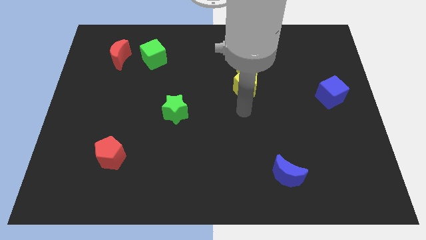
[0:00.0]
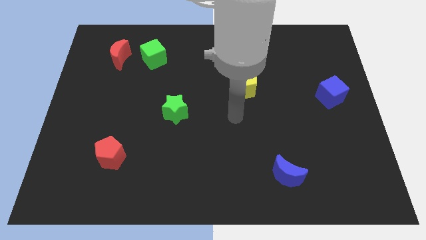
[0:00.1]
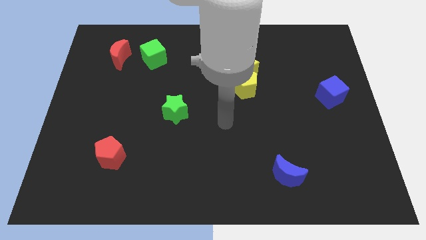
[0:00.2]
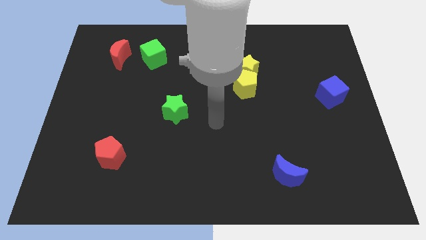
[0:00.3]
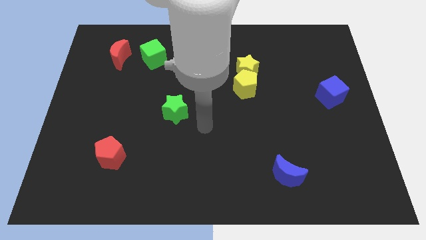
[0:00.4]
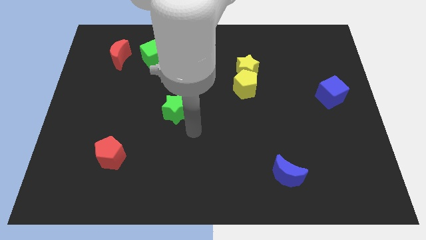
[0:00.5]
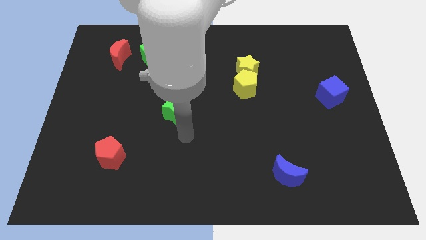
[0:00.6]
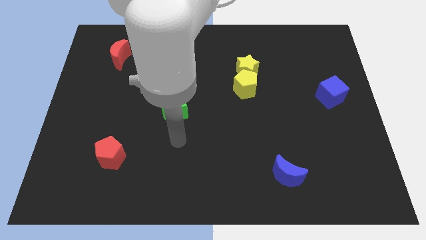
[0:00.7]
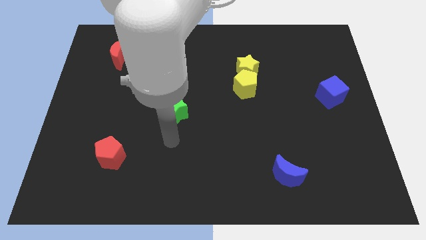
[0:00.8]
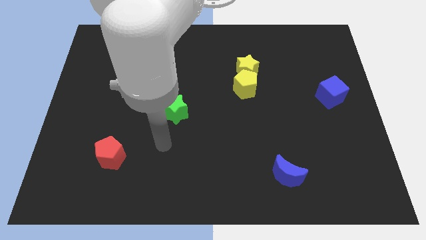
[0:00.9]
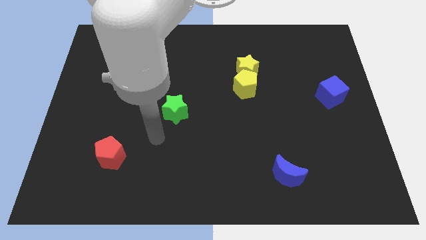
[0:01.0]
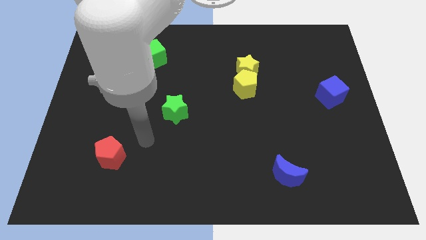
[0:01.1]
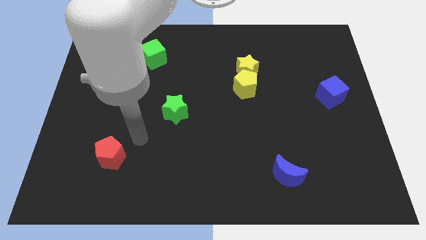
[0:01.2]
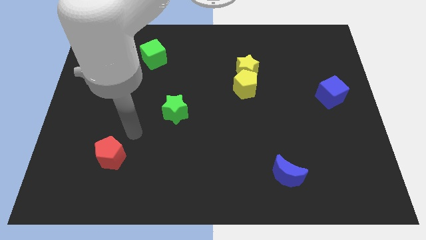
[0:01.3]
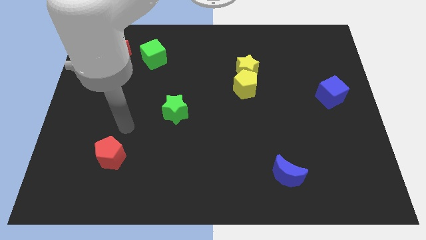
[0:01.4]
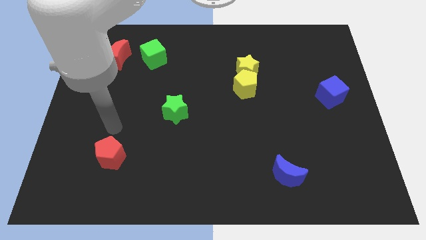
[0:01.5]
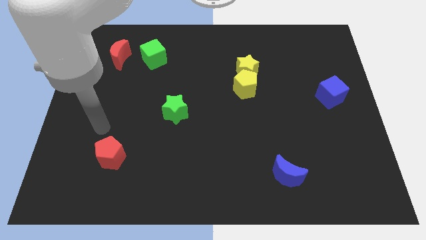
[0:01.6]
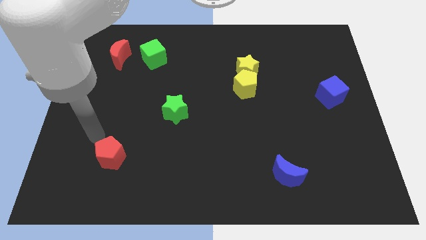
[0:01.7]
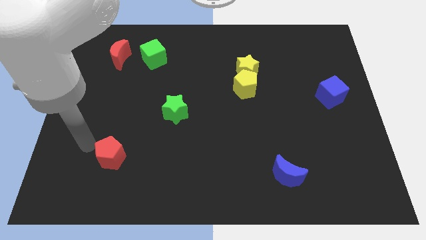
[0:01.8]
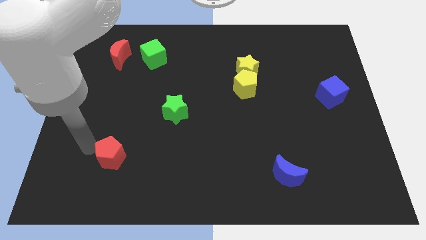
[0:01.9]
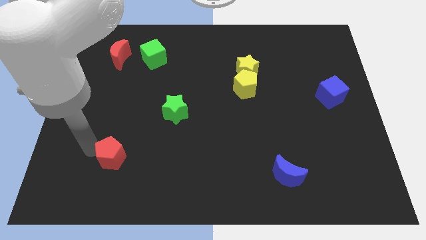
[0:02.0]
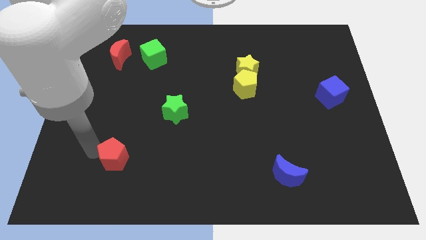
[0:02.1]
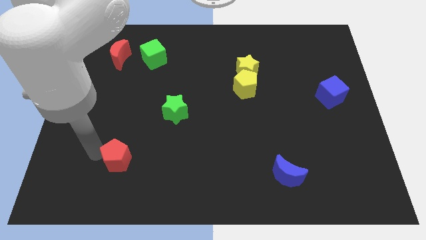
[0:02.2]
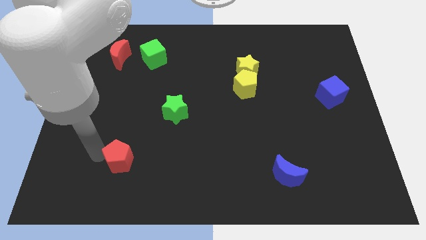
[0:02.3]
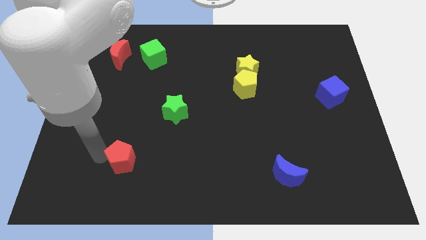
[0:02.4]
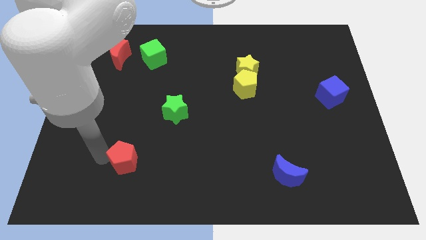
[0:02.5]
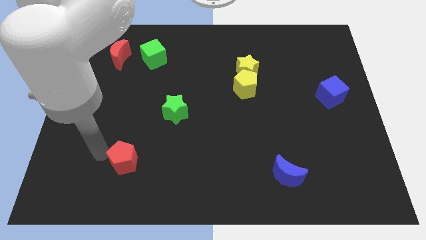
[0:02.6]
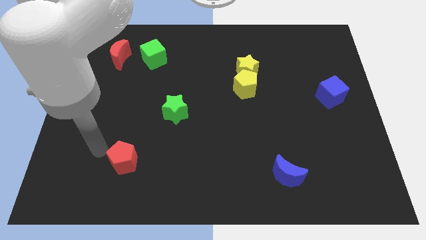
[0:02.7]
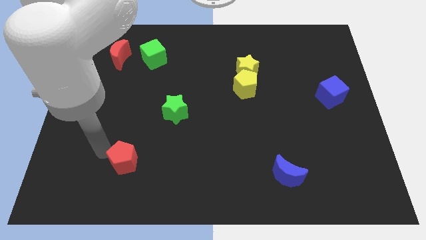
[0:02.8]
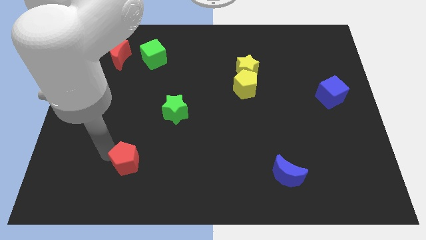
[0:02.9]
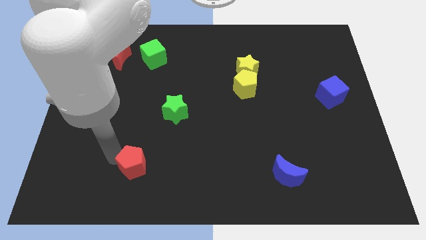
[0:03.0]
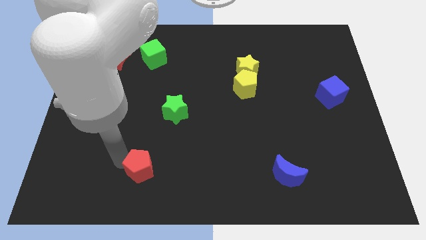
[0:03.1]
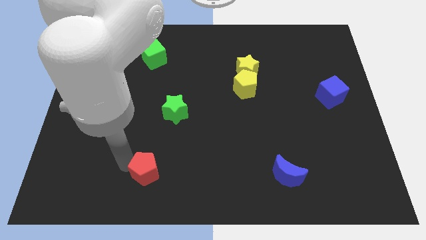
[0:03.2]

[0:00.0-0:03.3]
push the red pentagon somewhat to the right

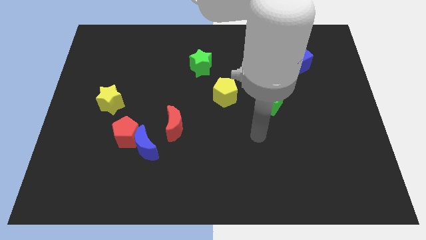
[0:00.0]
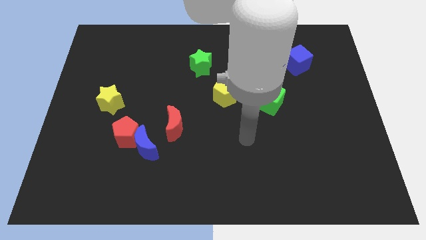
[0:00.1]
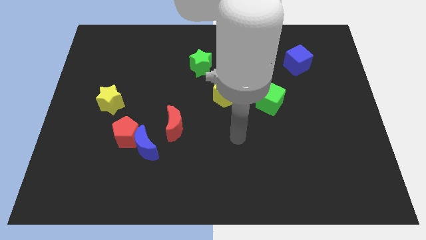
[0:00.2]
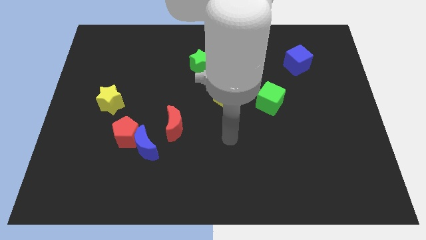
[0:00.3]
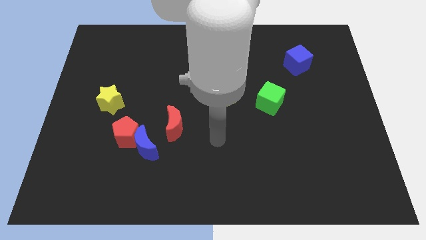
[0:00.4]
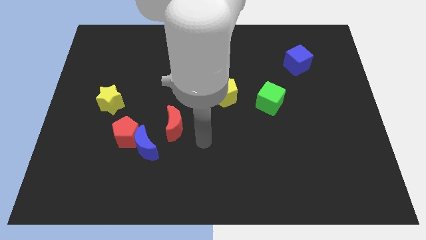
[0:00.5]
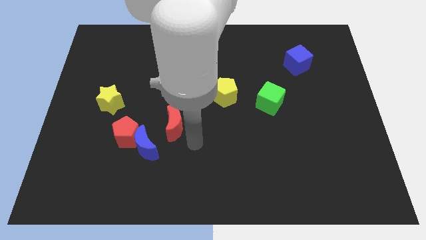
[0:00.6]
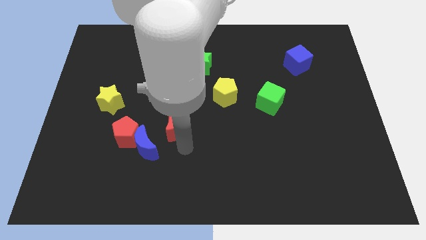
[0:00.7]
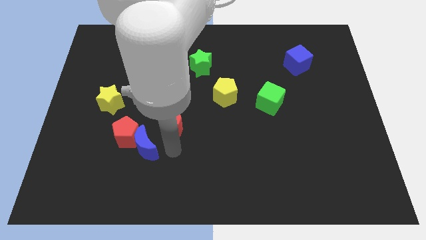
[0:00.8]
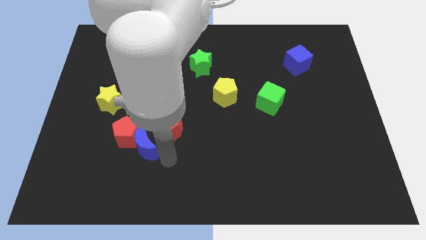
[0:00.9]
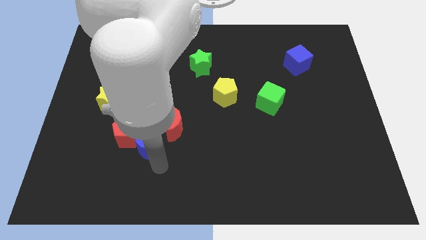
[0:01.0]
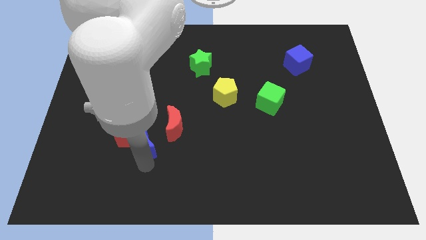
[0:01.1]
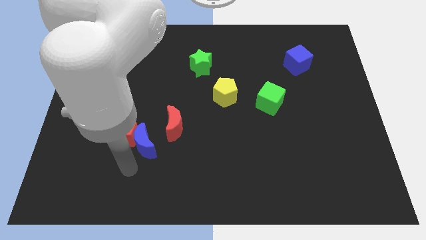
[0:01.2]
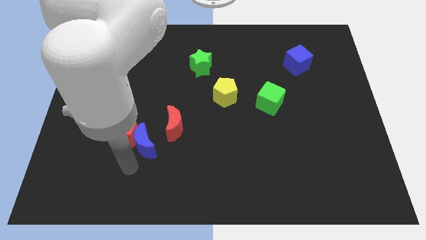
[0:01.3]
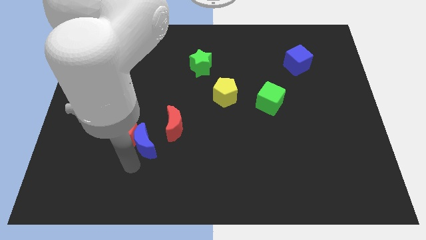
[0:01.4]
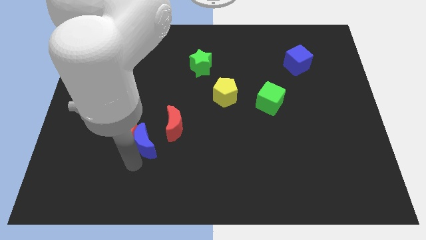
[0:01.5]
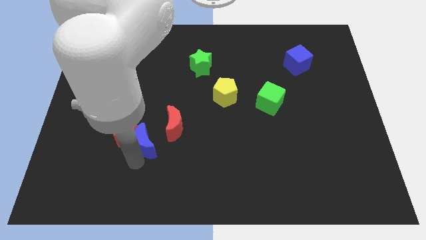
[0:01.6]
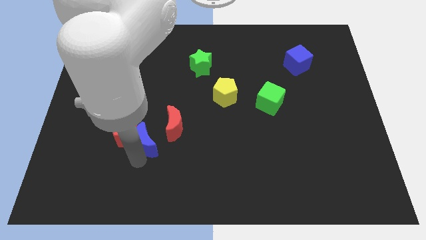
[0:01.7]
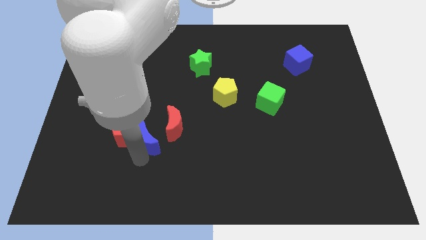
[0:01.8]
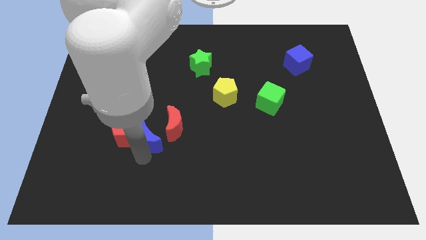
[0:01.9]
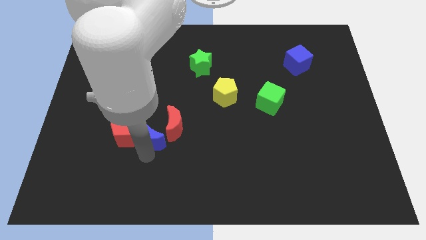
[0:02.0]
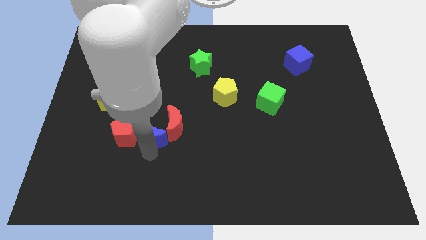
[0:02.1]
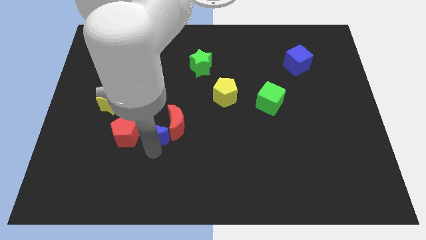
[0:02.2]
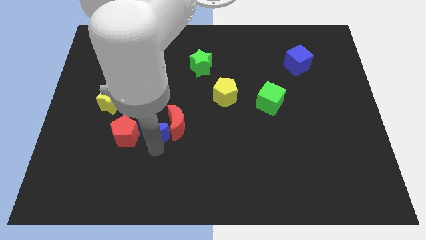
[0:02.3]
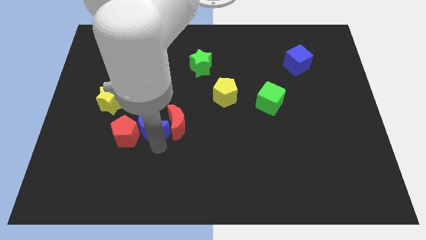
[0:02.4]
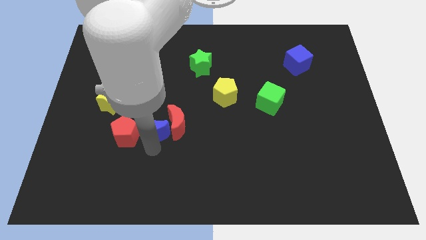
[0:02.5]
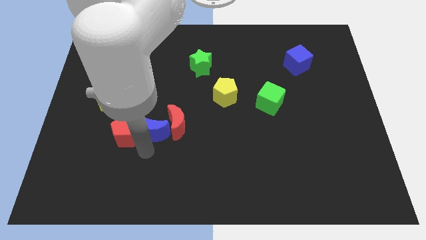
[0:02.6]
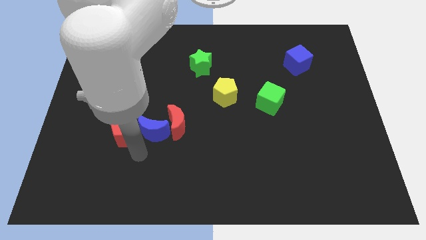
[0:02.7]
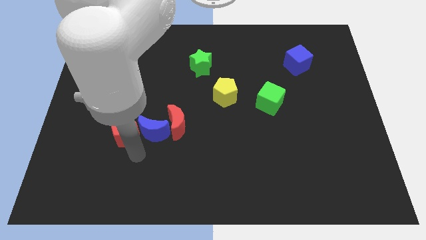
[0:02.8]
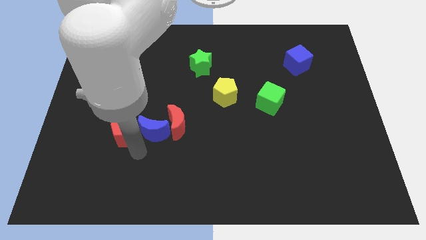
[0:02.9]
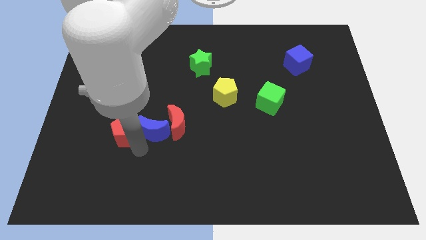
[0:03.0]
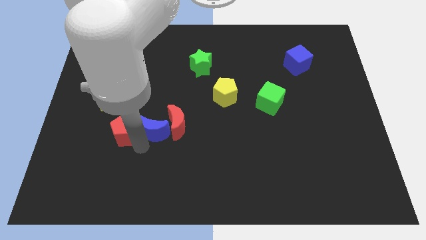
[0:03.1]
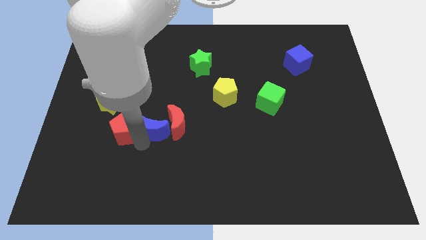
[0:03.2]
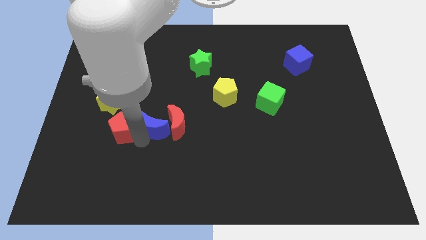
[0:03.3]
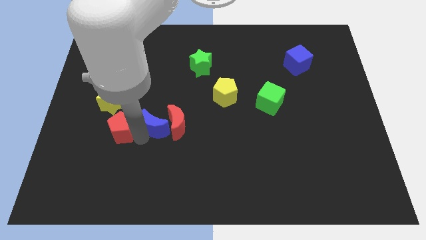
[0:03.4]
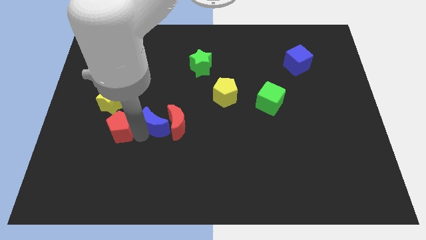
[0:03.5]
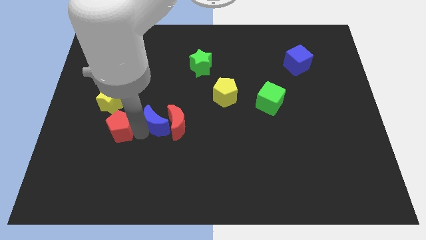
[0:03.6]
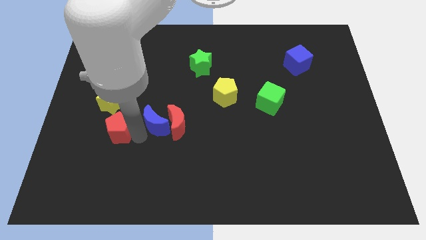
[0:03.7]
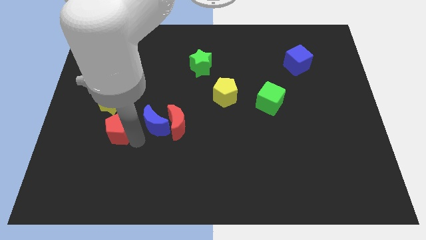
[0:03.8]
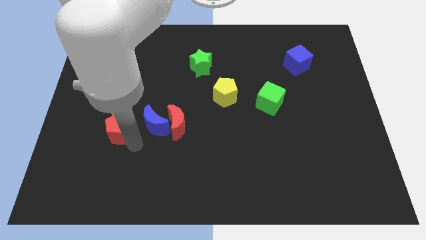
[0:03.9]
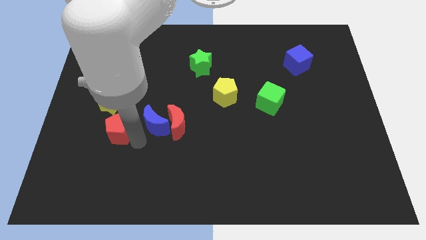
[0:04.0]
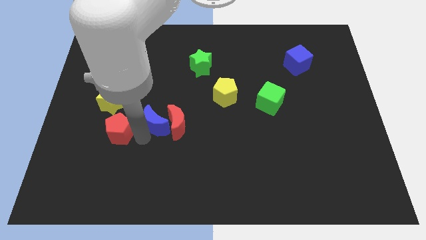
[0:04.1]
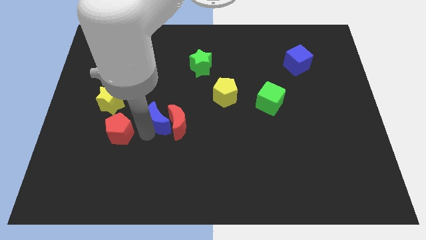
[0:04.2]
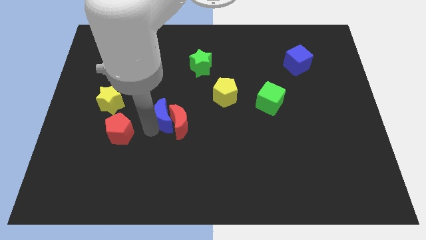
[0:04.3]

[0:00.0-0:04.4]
slightly move the blue moon diagonally up and right

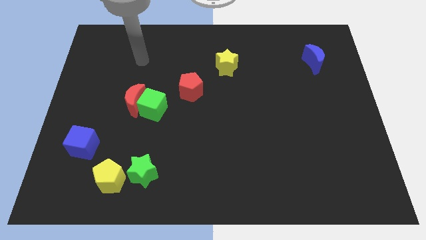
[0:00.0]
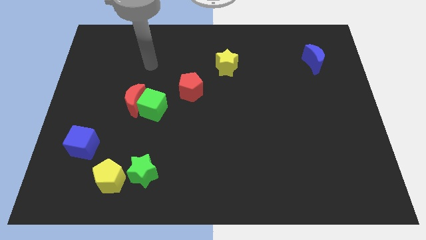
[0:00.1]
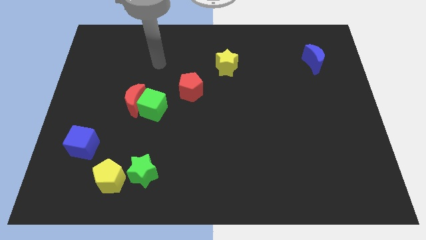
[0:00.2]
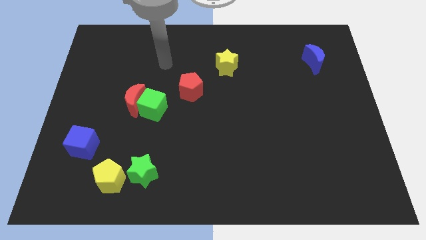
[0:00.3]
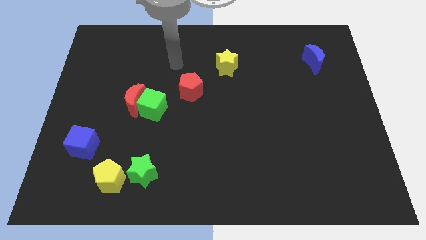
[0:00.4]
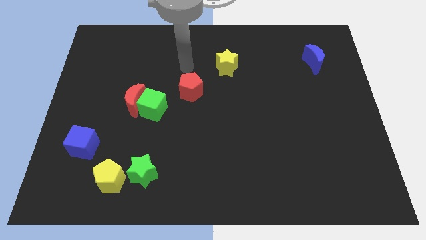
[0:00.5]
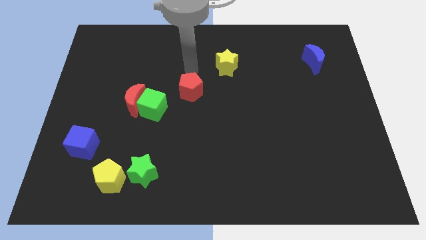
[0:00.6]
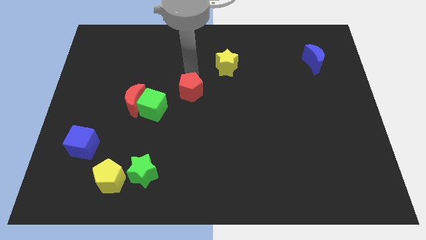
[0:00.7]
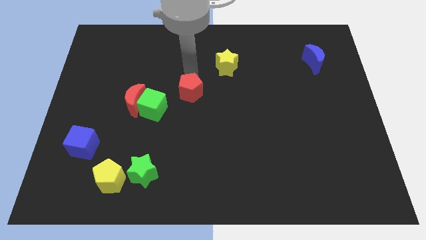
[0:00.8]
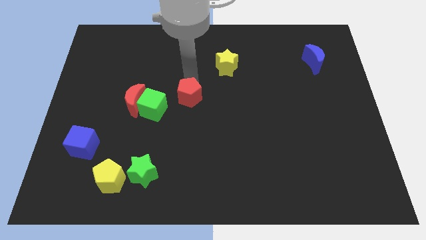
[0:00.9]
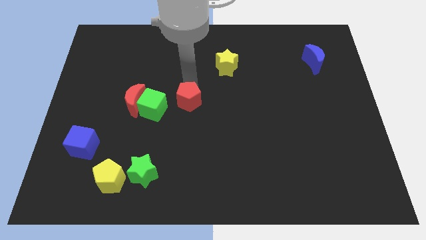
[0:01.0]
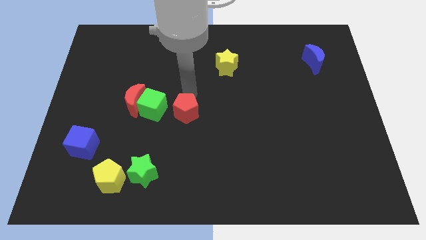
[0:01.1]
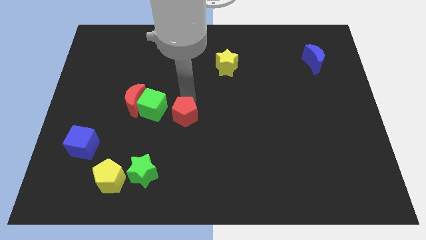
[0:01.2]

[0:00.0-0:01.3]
slide the red pentagon down a bit
